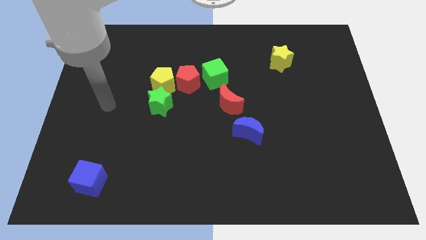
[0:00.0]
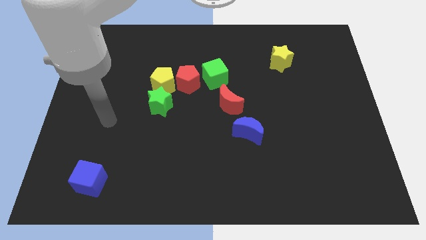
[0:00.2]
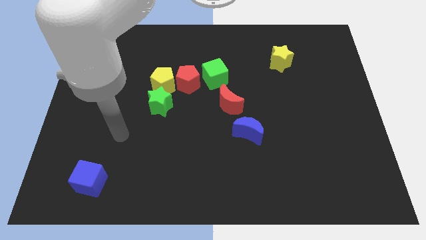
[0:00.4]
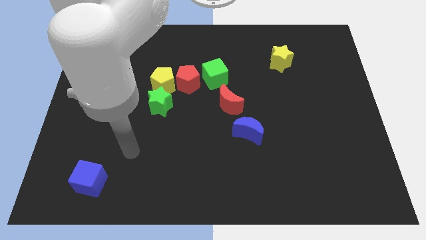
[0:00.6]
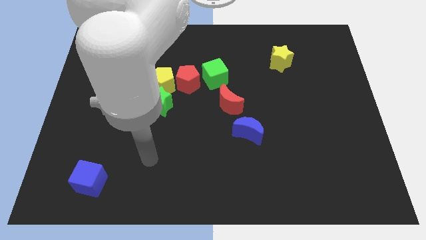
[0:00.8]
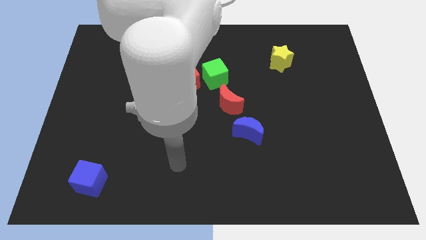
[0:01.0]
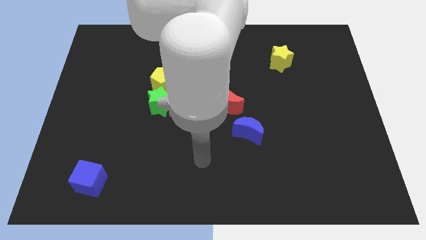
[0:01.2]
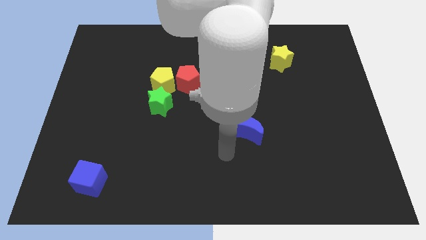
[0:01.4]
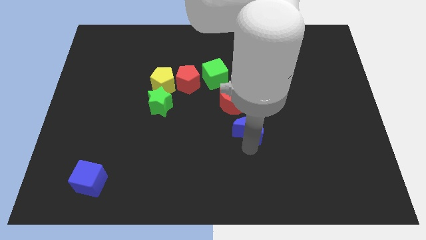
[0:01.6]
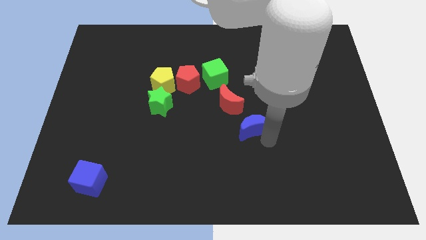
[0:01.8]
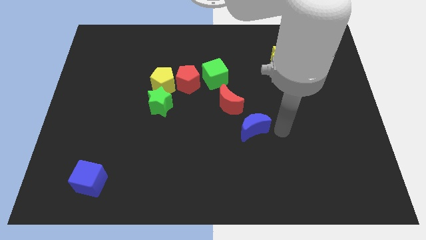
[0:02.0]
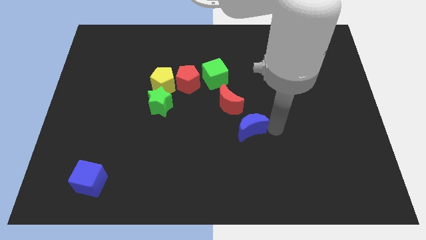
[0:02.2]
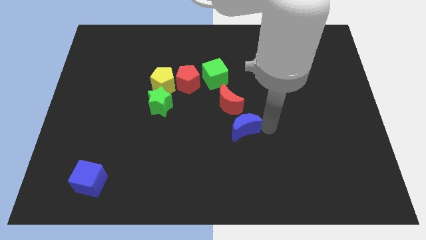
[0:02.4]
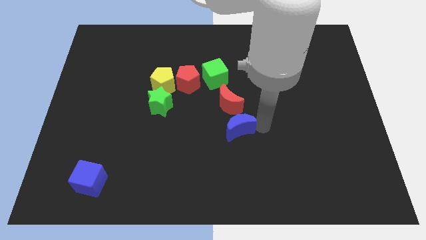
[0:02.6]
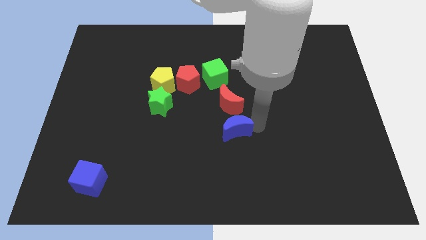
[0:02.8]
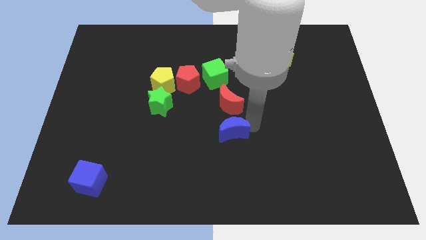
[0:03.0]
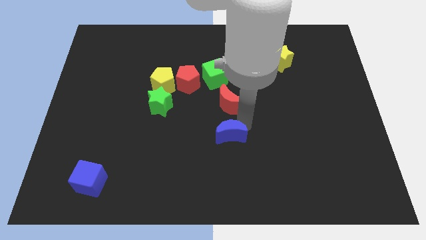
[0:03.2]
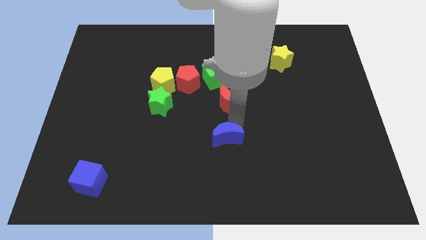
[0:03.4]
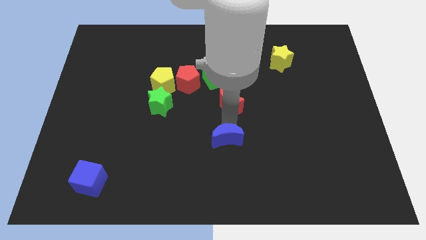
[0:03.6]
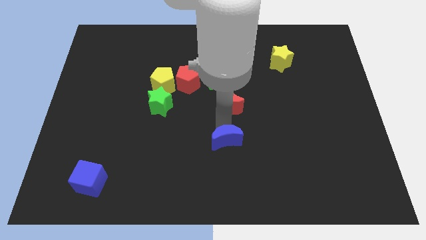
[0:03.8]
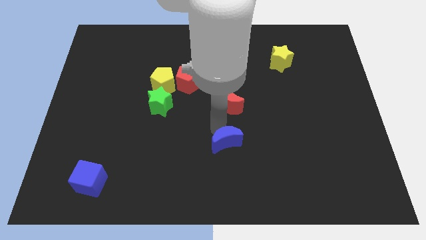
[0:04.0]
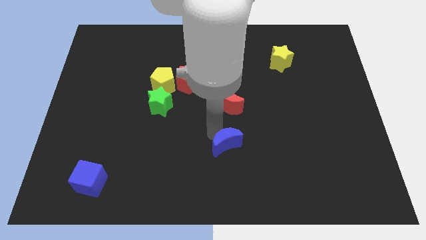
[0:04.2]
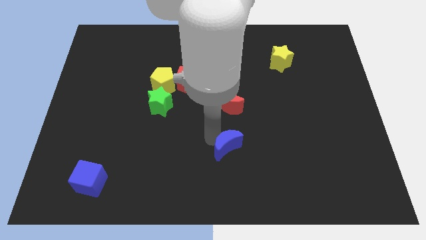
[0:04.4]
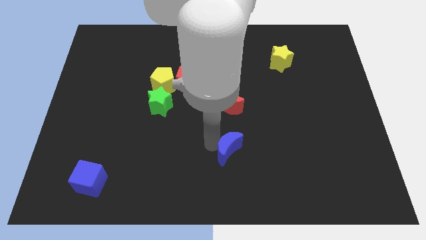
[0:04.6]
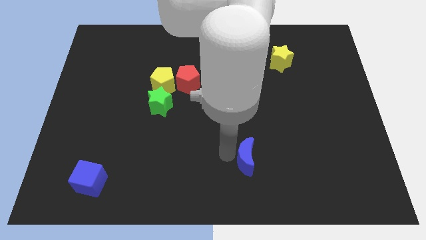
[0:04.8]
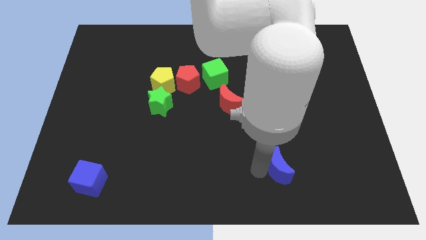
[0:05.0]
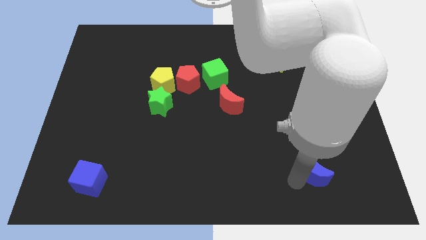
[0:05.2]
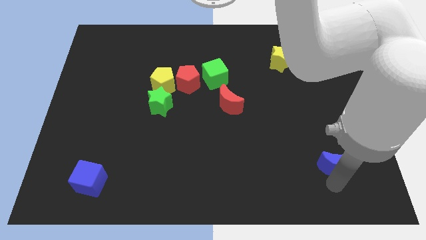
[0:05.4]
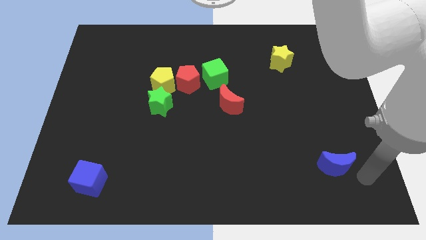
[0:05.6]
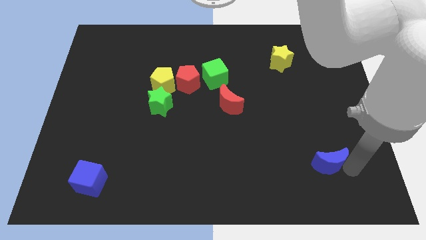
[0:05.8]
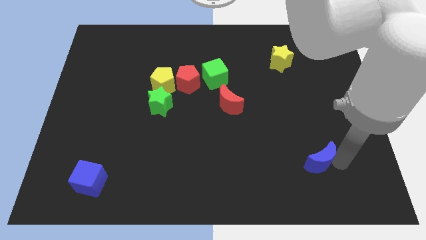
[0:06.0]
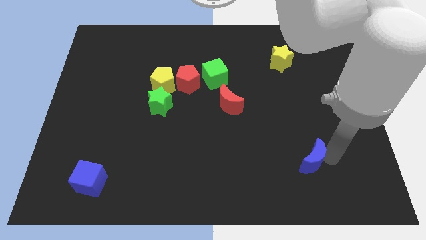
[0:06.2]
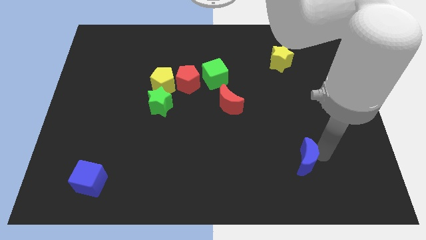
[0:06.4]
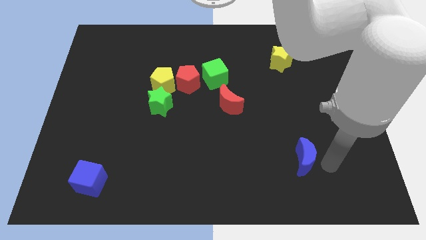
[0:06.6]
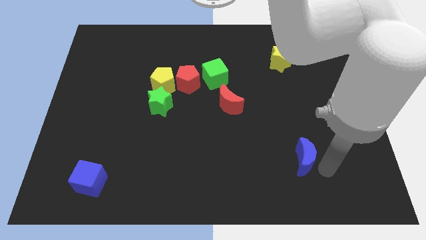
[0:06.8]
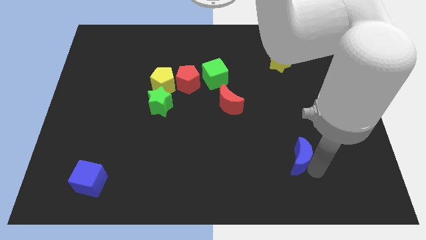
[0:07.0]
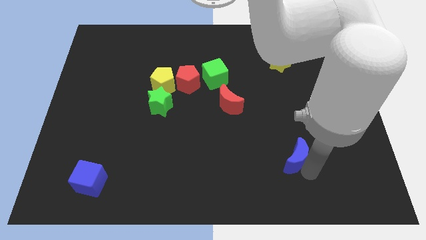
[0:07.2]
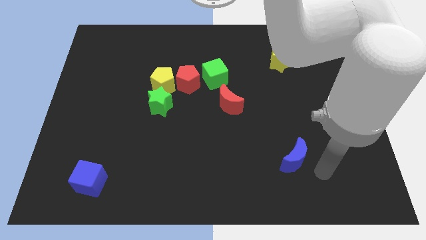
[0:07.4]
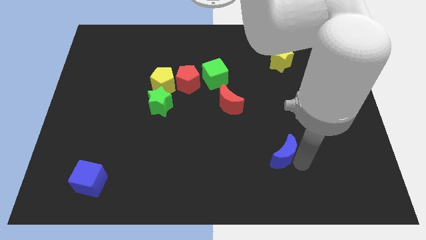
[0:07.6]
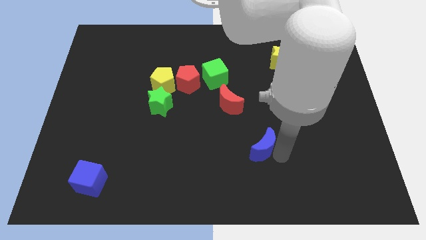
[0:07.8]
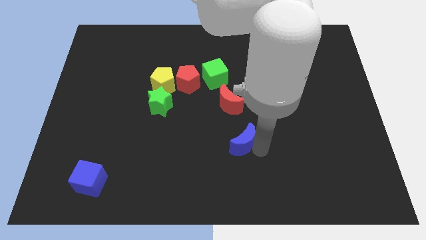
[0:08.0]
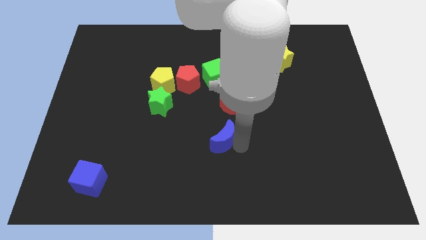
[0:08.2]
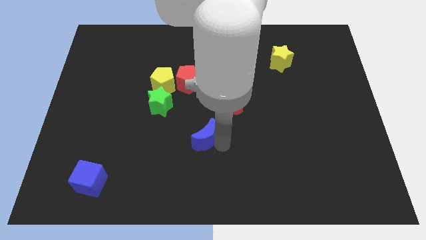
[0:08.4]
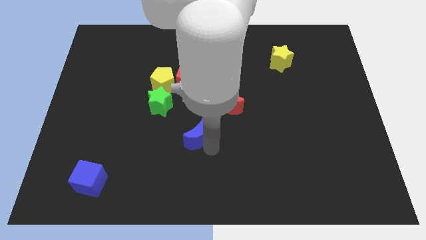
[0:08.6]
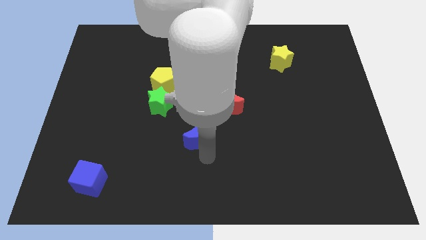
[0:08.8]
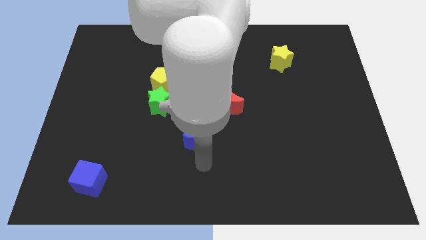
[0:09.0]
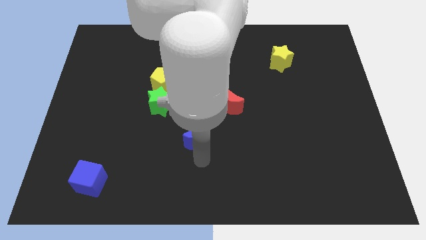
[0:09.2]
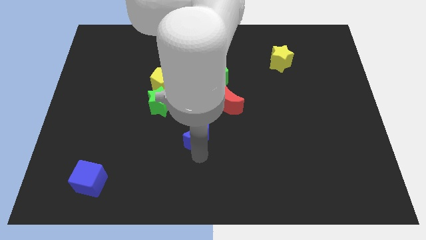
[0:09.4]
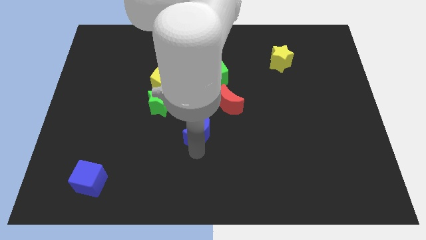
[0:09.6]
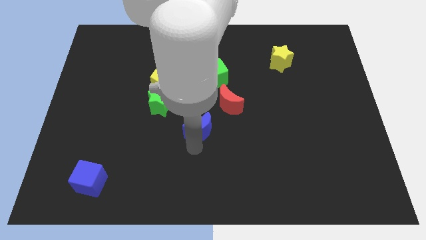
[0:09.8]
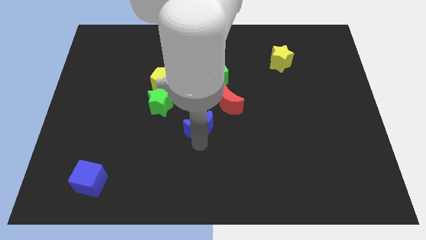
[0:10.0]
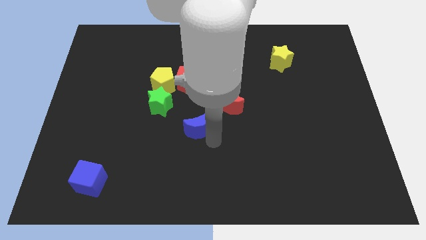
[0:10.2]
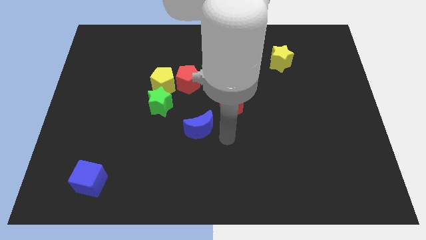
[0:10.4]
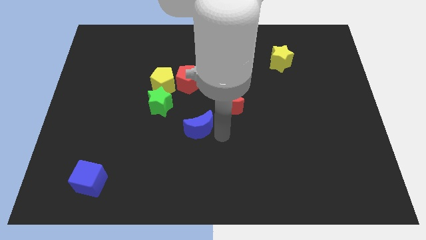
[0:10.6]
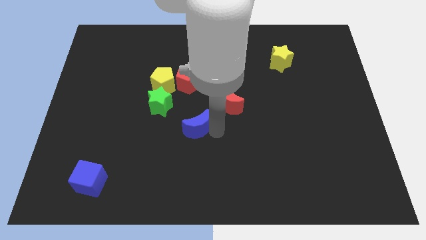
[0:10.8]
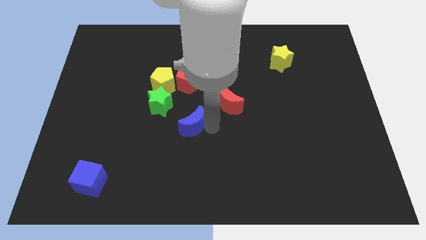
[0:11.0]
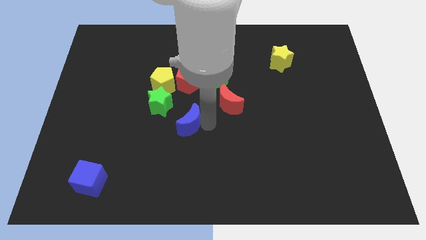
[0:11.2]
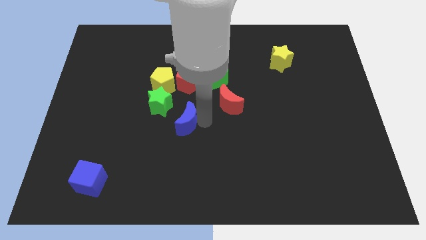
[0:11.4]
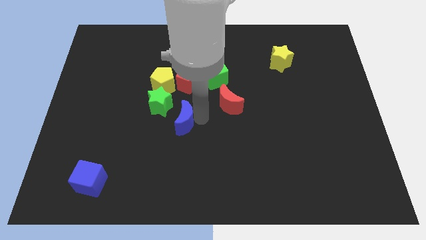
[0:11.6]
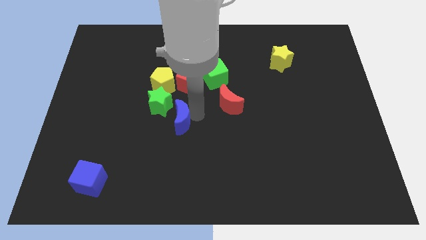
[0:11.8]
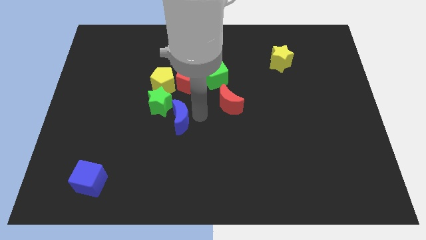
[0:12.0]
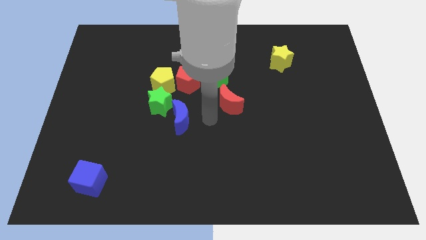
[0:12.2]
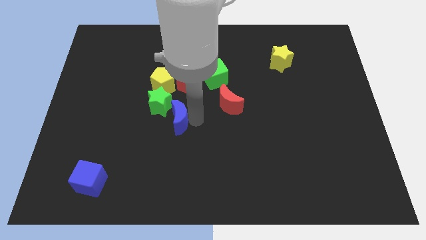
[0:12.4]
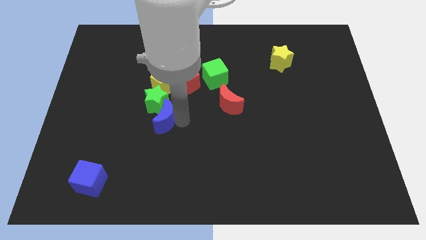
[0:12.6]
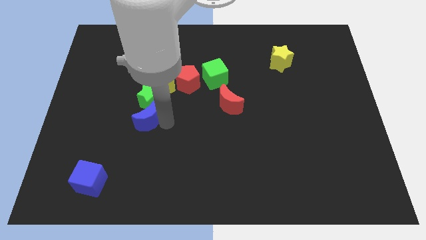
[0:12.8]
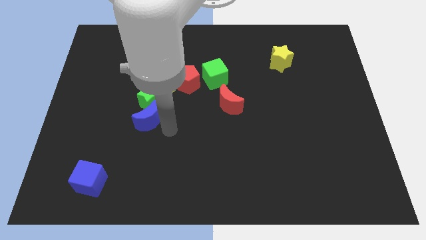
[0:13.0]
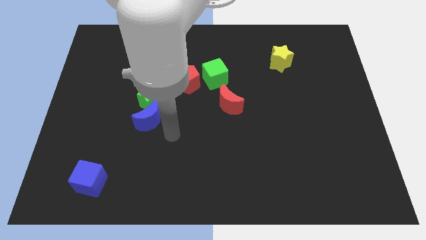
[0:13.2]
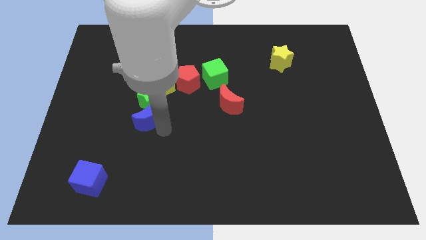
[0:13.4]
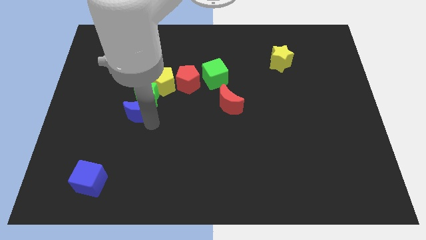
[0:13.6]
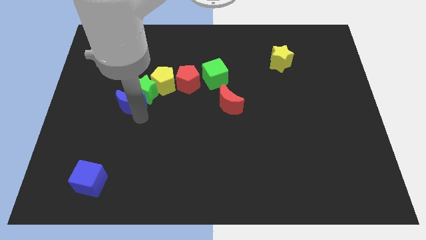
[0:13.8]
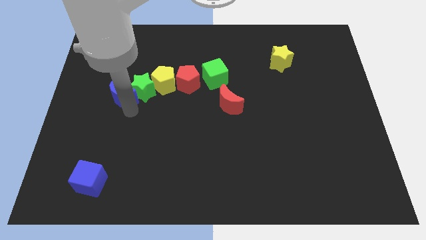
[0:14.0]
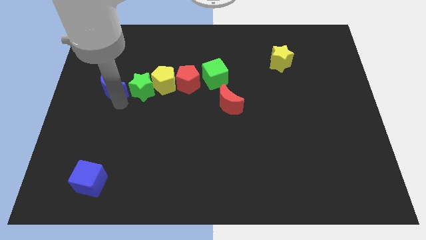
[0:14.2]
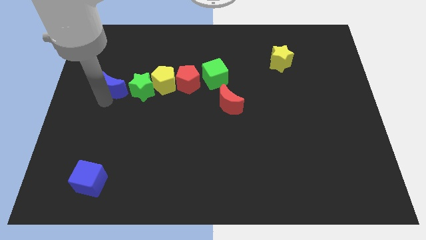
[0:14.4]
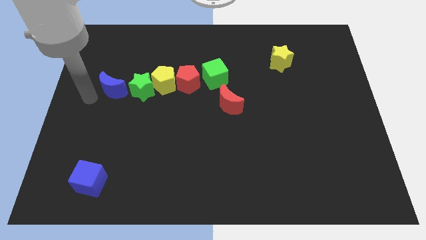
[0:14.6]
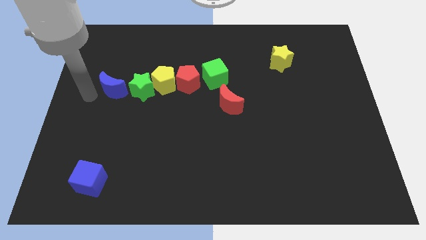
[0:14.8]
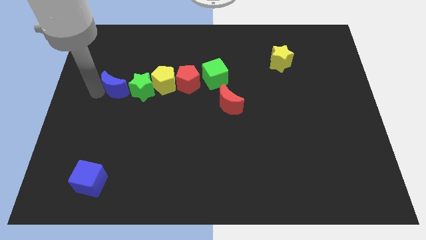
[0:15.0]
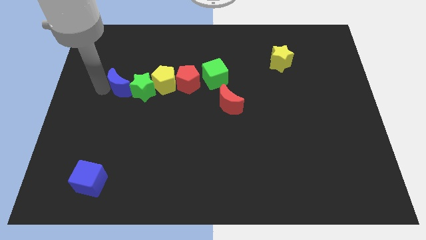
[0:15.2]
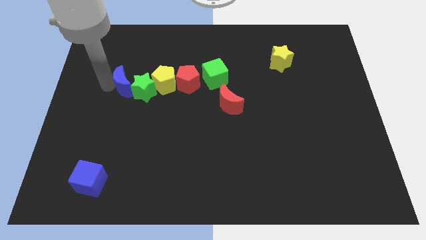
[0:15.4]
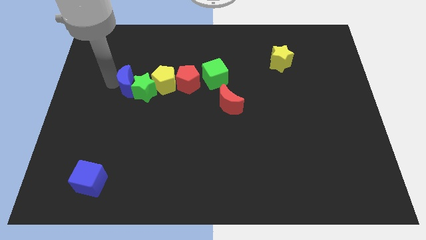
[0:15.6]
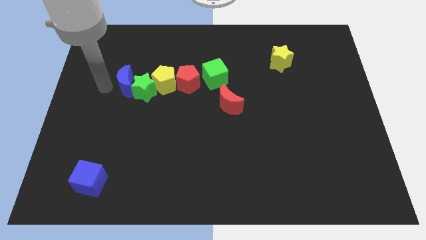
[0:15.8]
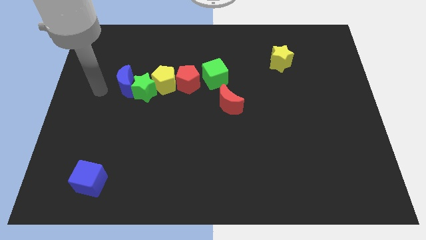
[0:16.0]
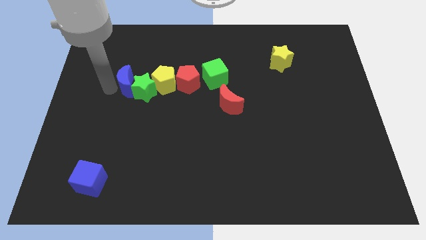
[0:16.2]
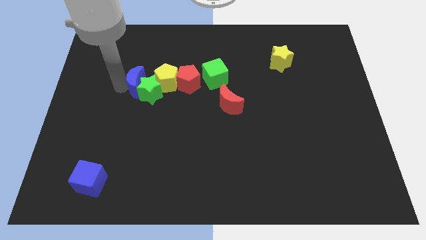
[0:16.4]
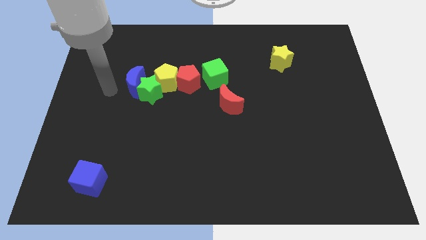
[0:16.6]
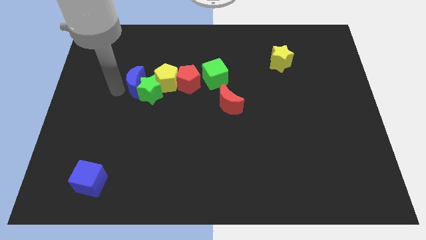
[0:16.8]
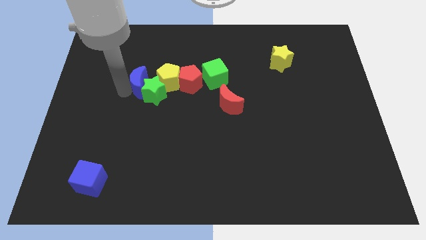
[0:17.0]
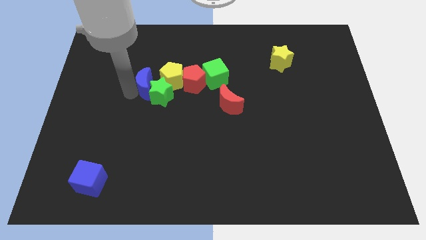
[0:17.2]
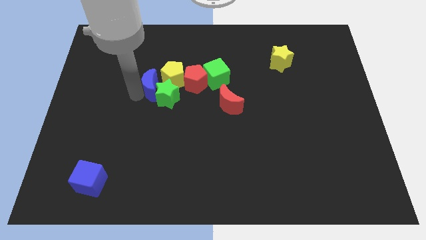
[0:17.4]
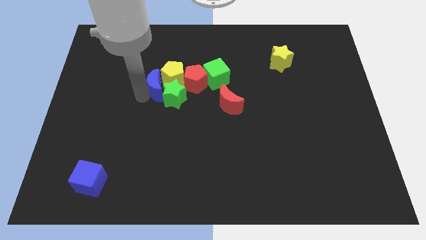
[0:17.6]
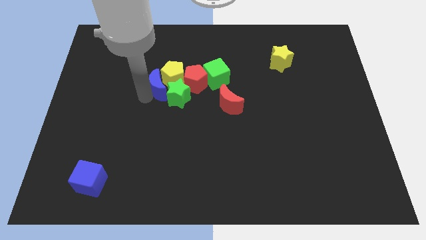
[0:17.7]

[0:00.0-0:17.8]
slide the blue moon to the left of the green cube
